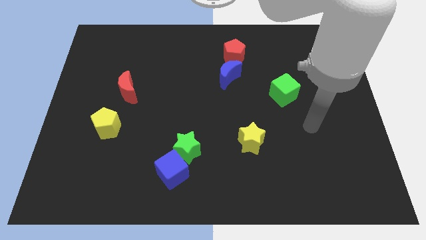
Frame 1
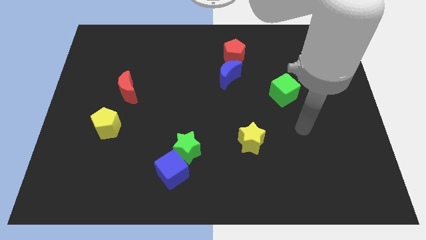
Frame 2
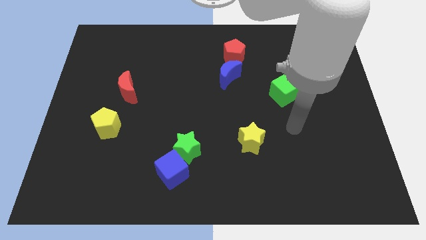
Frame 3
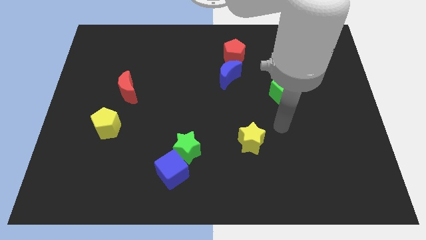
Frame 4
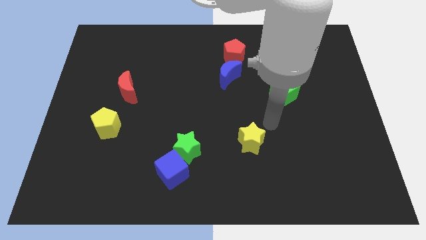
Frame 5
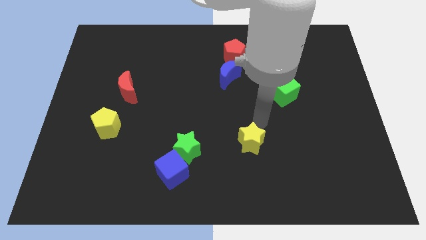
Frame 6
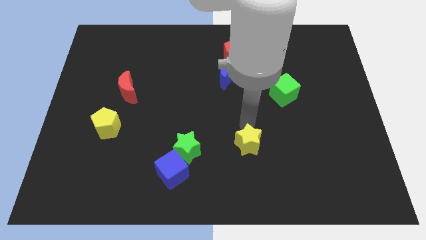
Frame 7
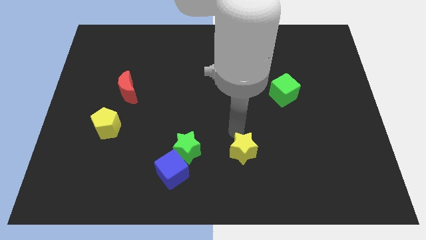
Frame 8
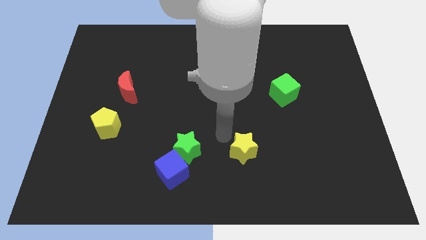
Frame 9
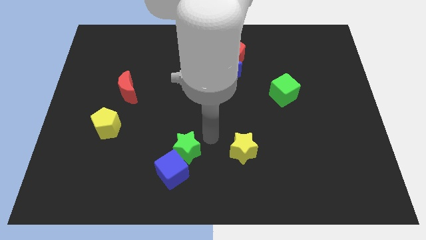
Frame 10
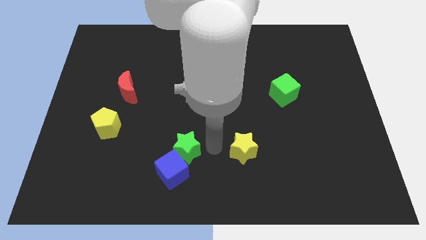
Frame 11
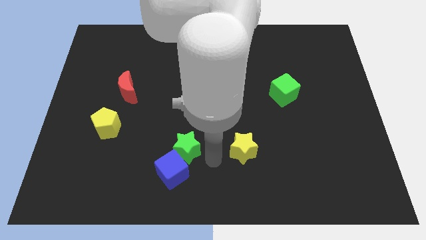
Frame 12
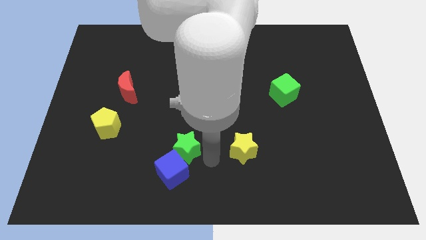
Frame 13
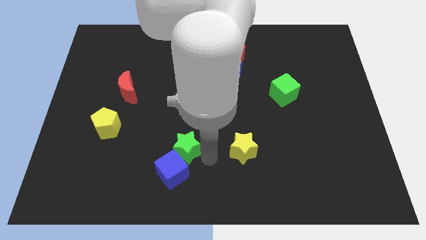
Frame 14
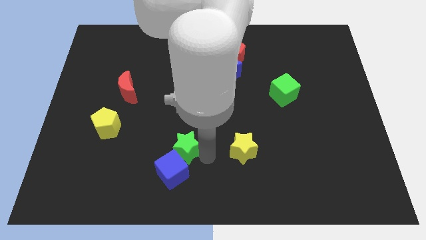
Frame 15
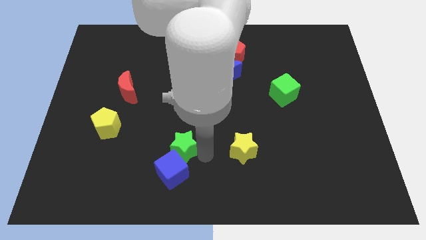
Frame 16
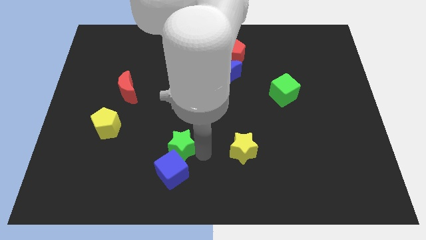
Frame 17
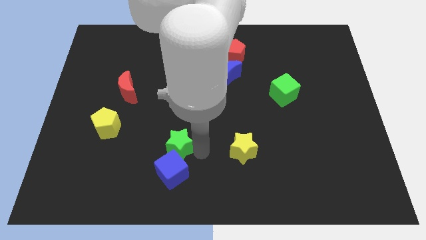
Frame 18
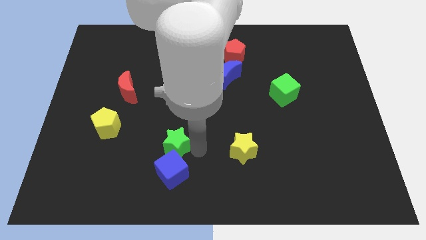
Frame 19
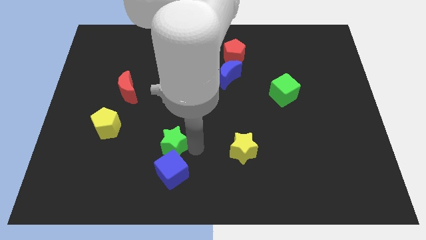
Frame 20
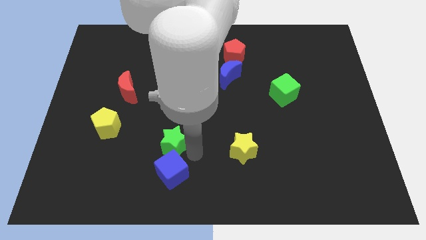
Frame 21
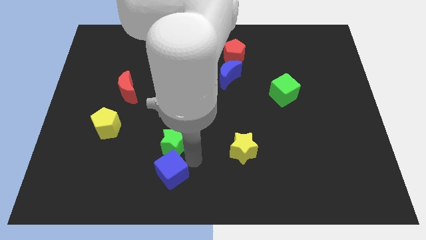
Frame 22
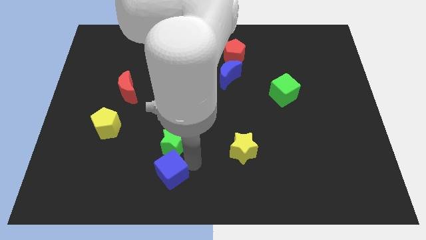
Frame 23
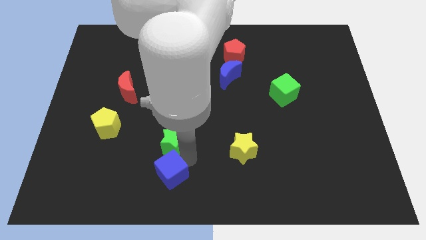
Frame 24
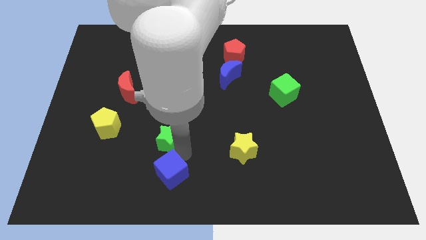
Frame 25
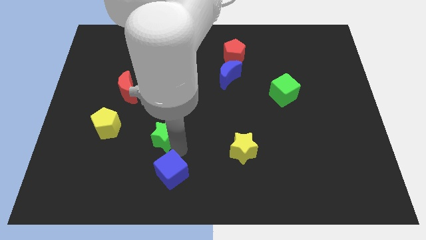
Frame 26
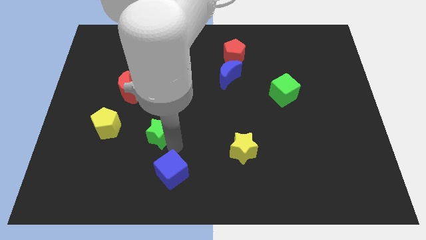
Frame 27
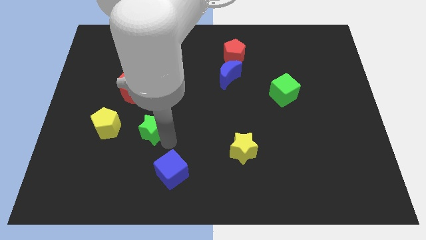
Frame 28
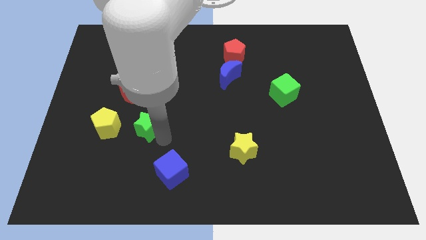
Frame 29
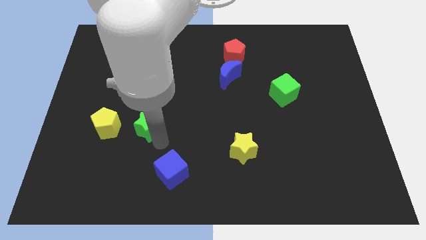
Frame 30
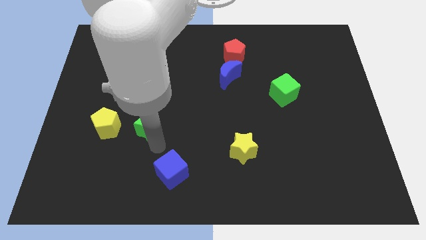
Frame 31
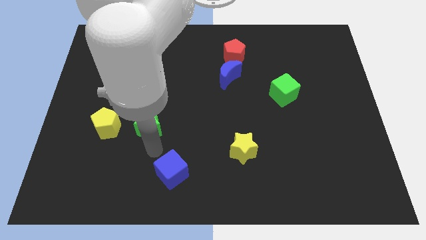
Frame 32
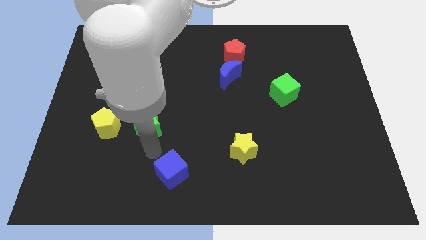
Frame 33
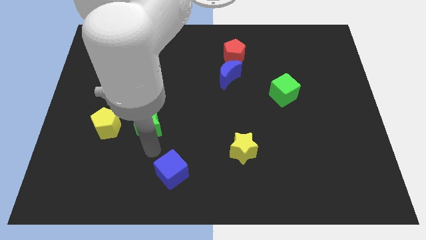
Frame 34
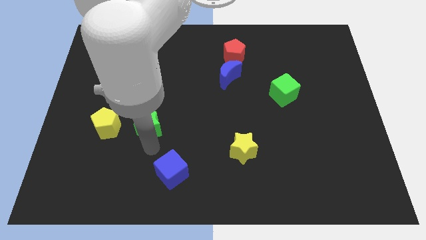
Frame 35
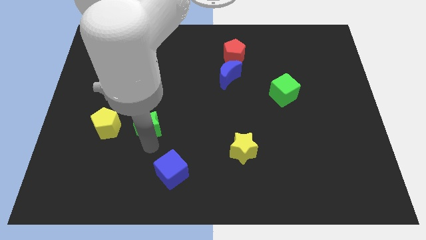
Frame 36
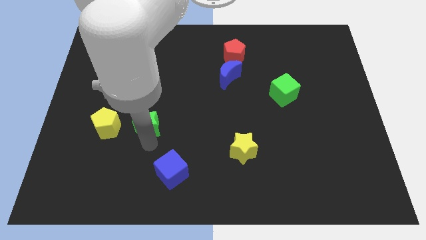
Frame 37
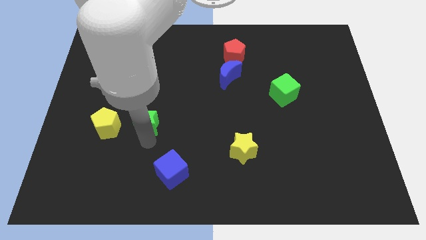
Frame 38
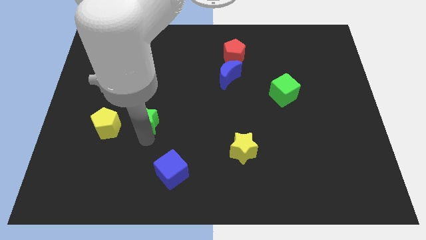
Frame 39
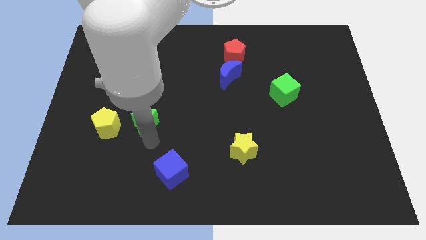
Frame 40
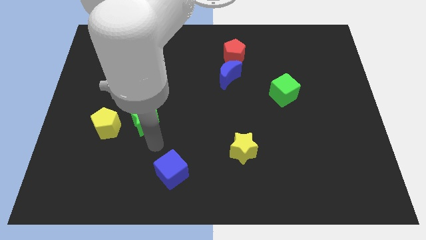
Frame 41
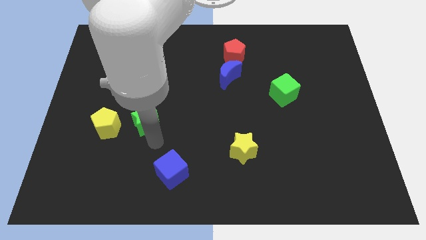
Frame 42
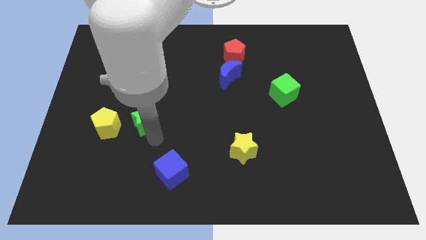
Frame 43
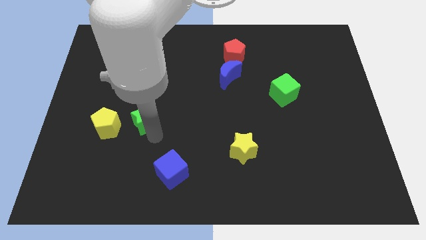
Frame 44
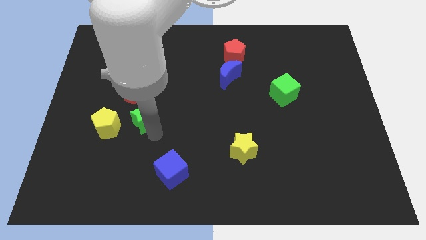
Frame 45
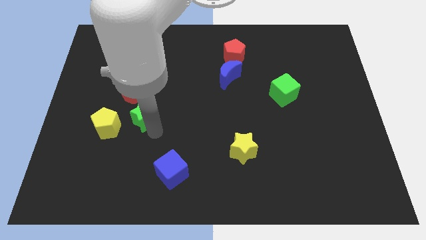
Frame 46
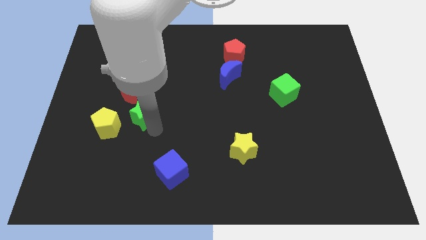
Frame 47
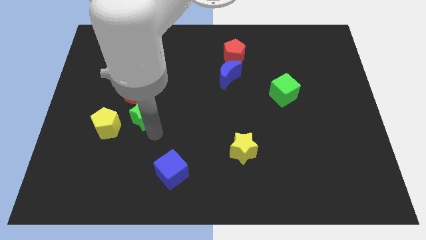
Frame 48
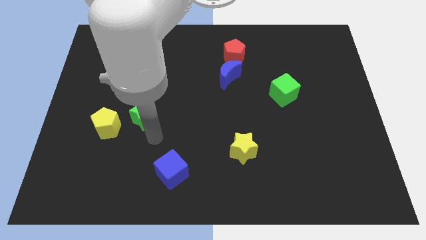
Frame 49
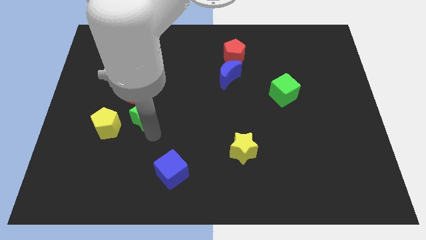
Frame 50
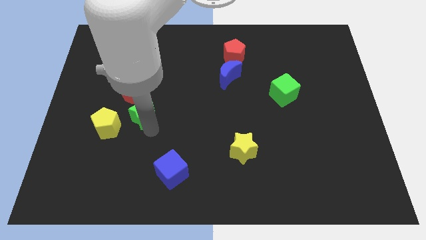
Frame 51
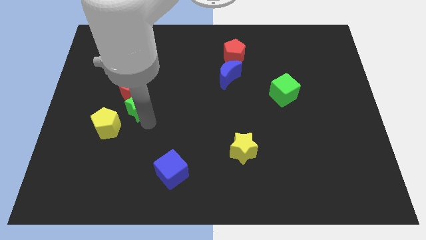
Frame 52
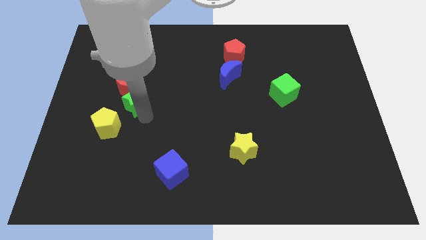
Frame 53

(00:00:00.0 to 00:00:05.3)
slide the green star close to the red moon

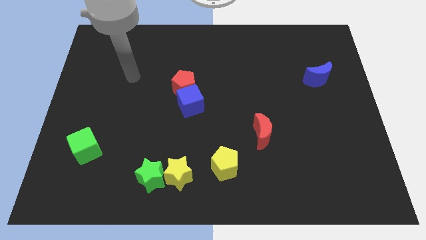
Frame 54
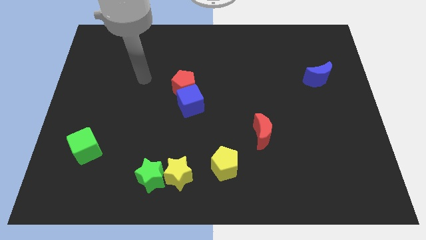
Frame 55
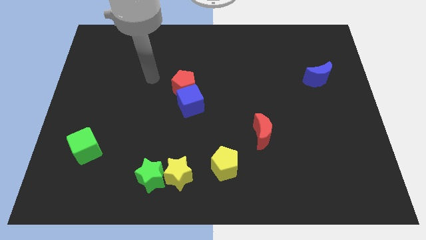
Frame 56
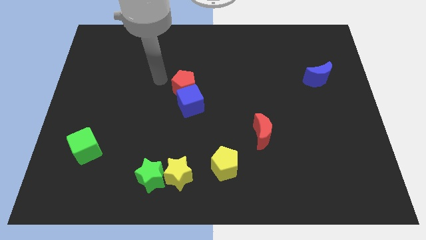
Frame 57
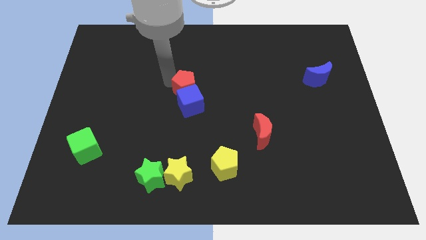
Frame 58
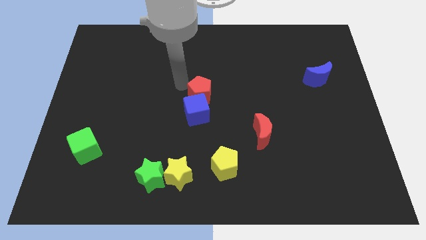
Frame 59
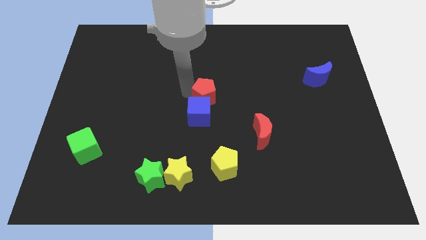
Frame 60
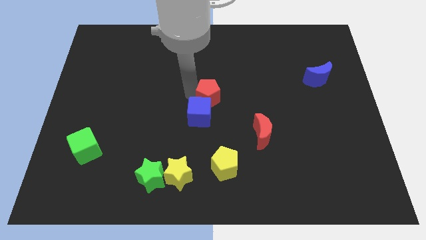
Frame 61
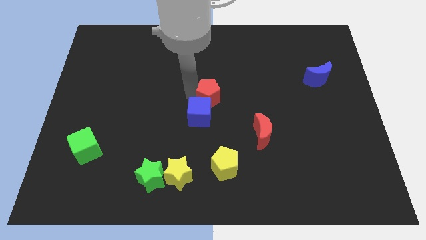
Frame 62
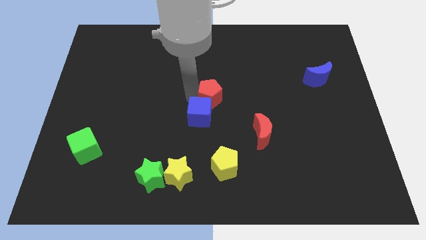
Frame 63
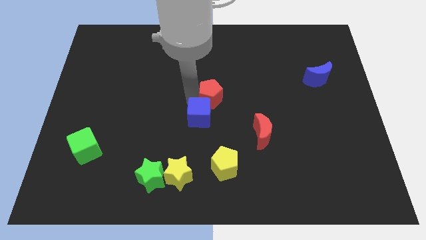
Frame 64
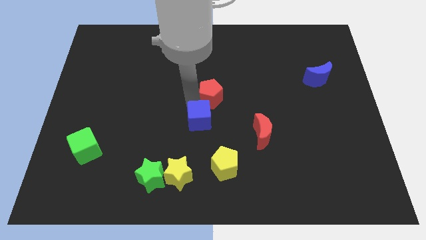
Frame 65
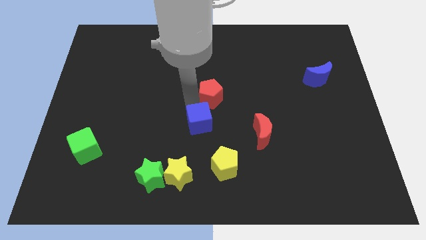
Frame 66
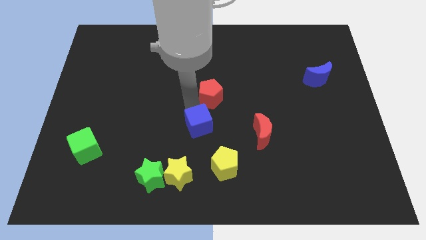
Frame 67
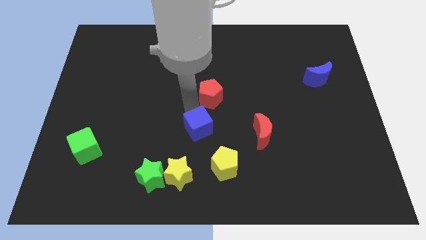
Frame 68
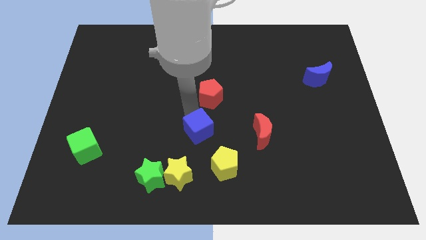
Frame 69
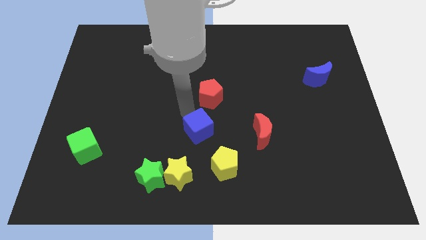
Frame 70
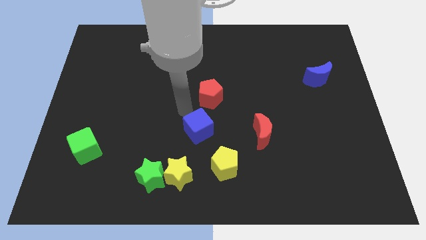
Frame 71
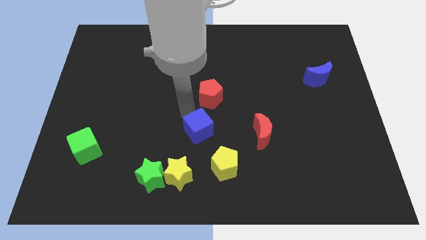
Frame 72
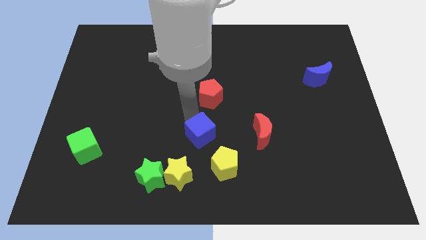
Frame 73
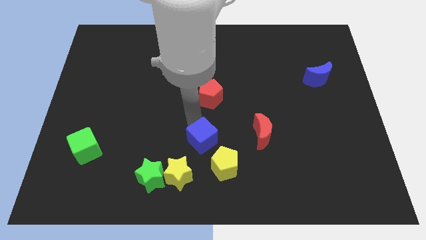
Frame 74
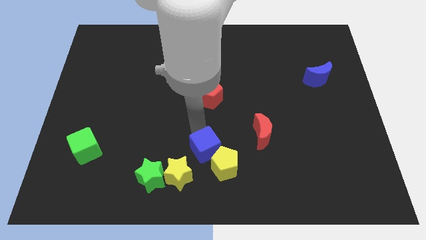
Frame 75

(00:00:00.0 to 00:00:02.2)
push the blue cube to the yellow pentagon

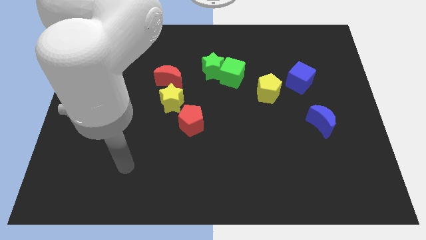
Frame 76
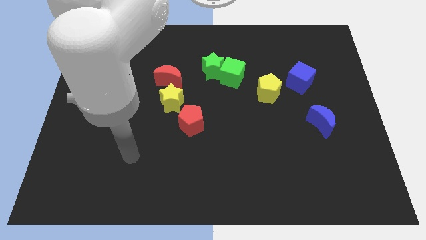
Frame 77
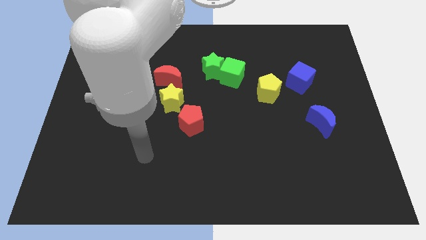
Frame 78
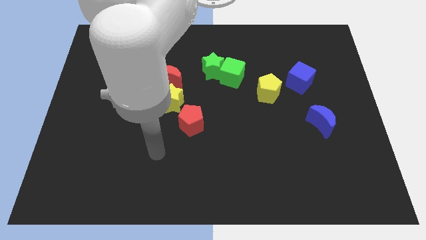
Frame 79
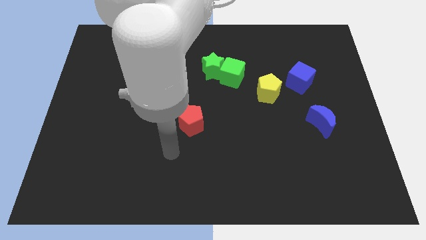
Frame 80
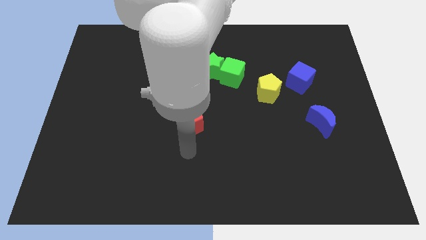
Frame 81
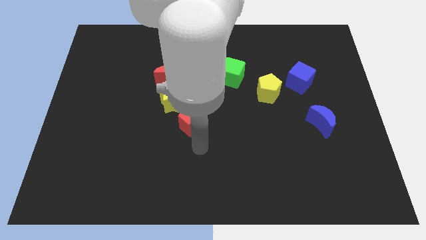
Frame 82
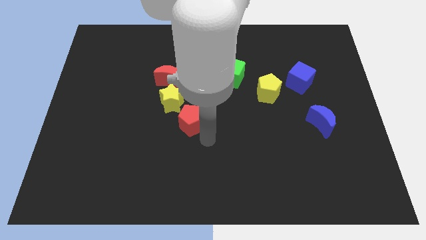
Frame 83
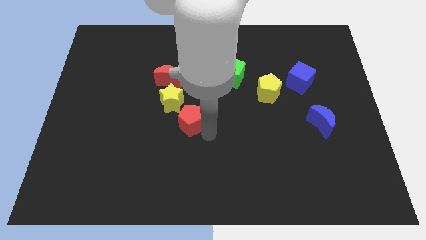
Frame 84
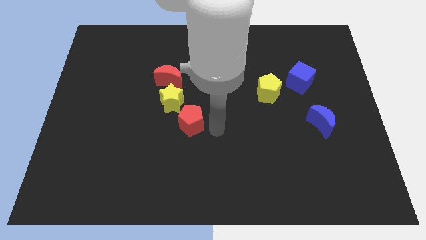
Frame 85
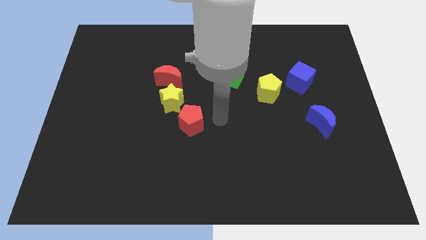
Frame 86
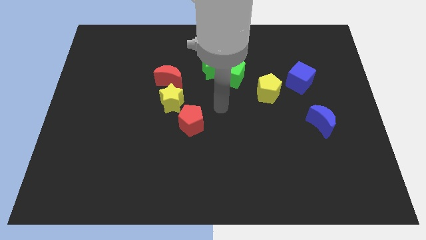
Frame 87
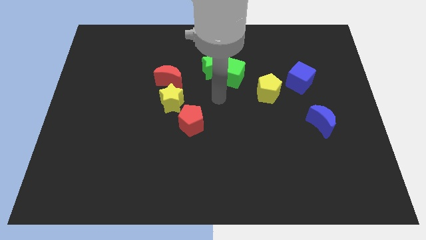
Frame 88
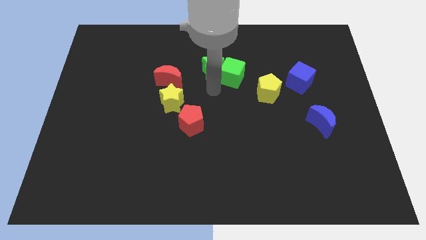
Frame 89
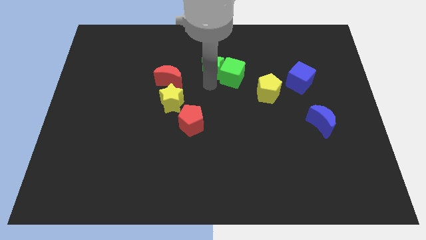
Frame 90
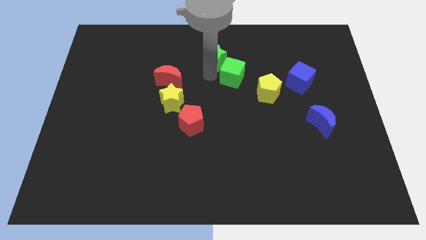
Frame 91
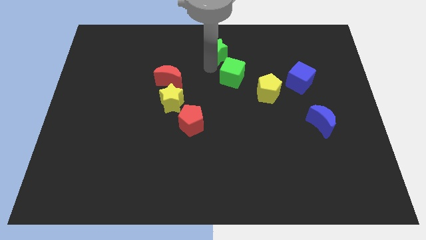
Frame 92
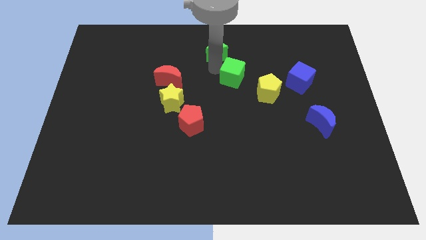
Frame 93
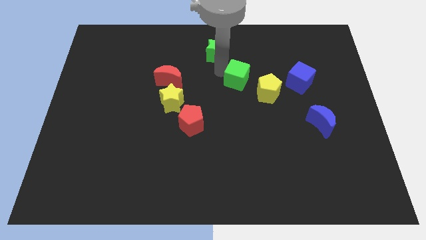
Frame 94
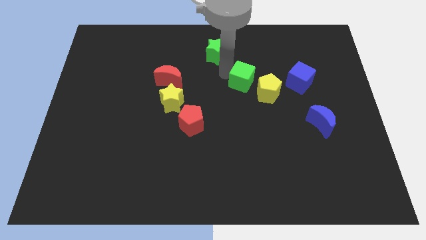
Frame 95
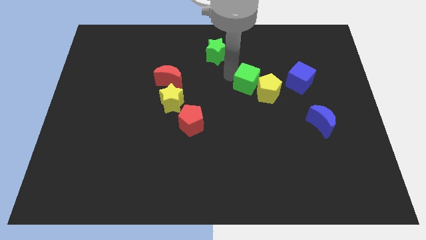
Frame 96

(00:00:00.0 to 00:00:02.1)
move the green cube next to the yellow pentagon
